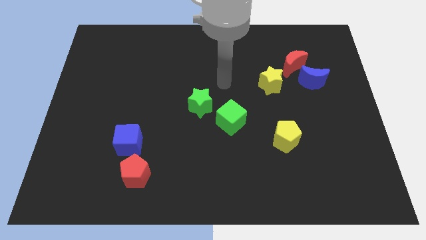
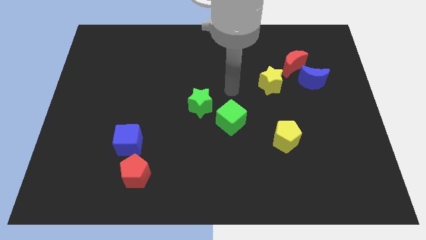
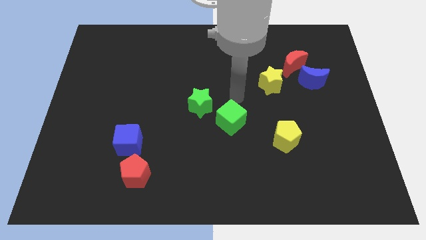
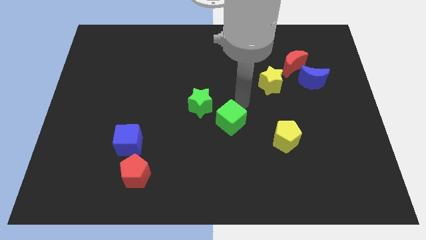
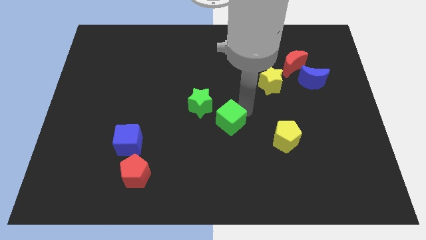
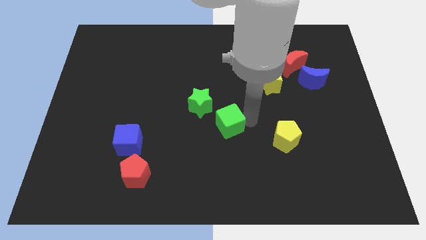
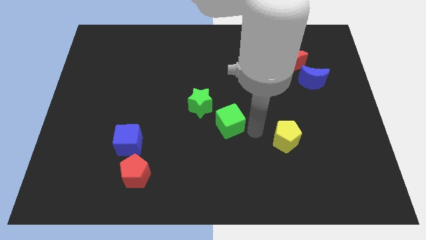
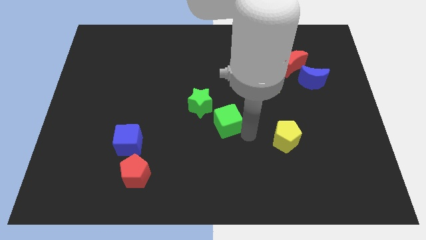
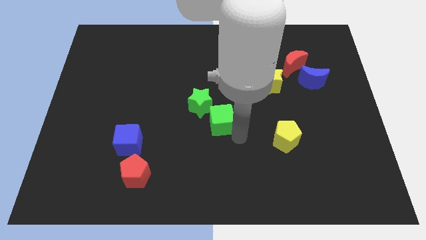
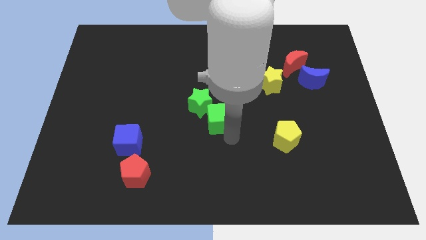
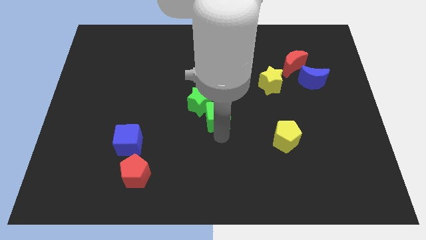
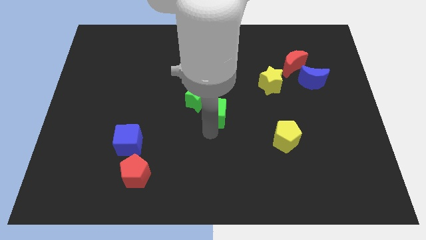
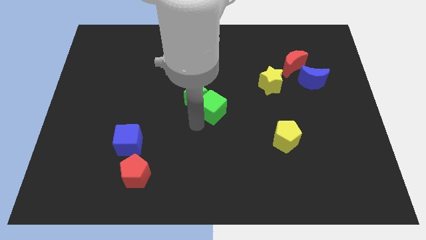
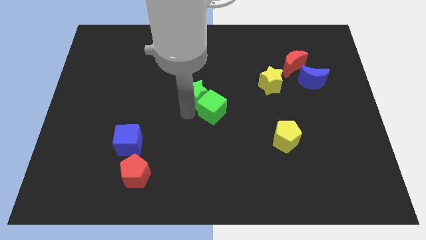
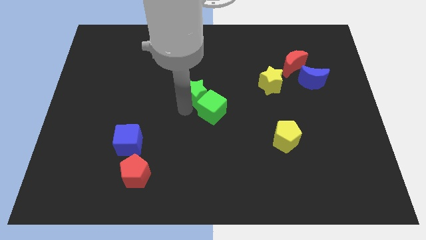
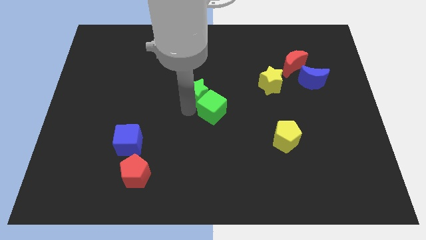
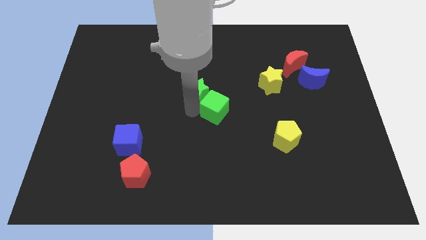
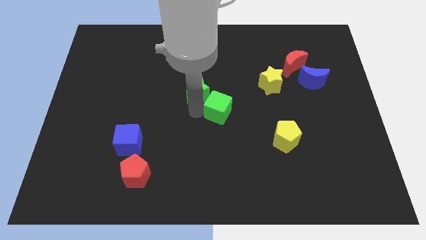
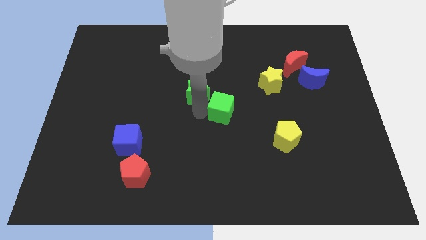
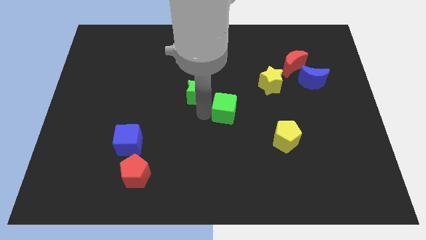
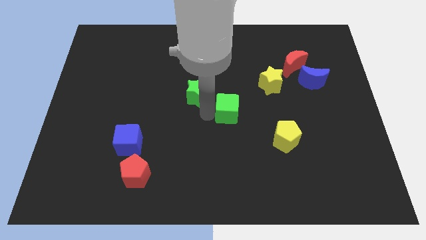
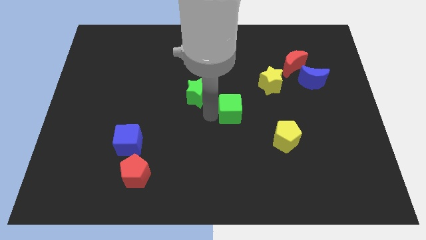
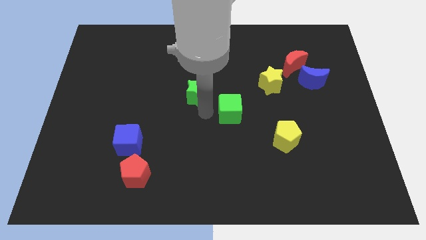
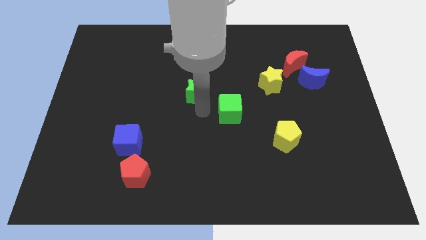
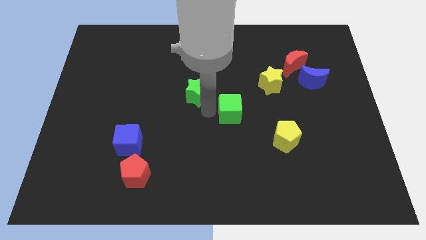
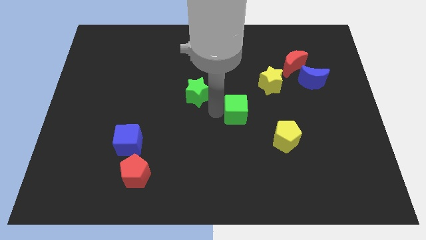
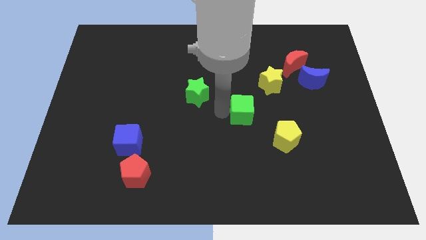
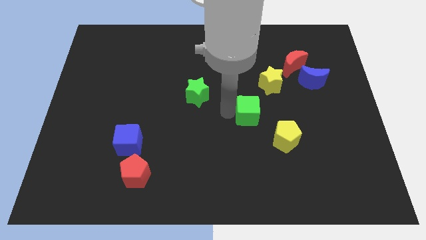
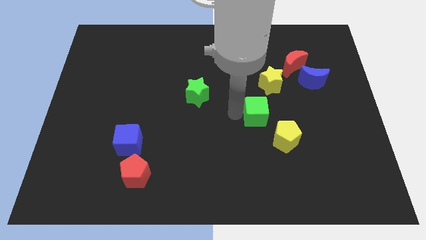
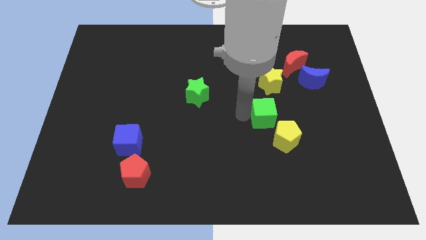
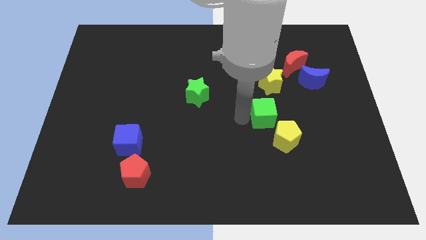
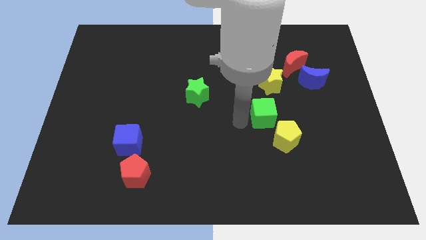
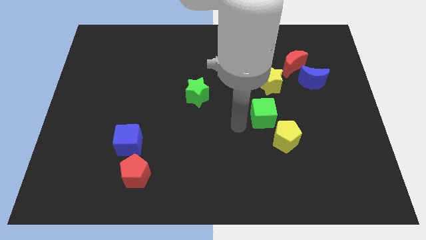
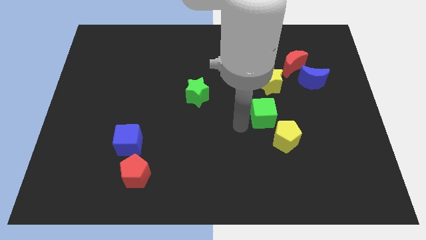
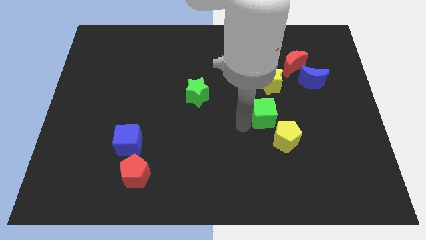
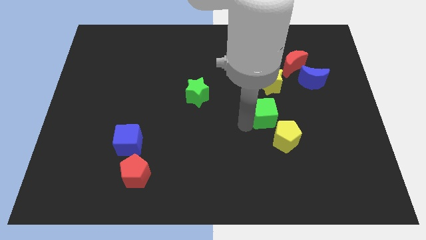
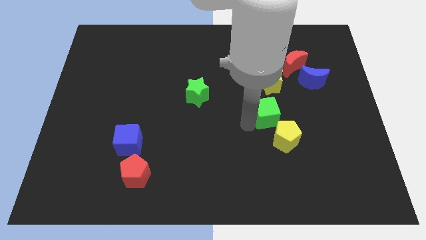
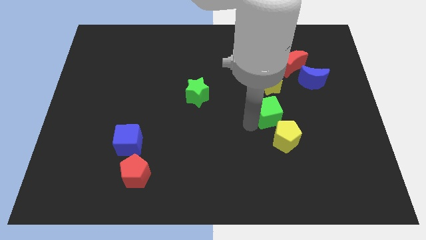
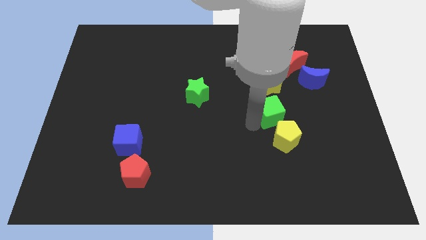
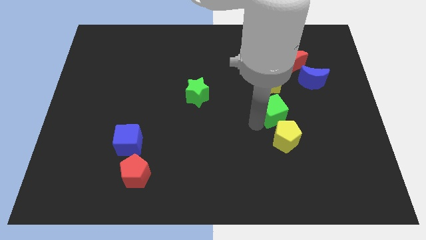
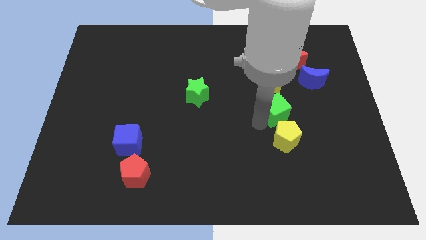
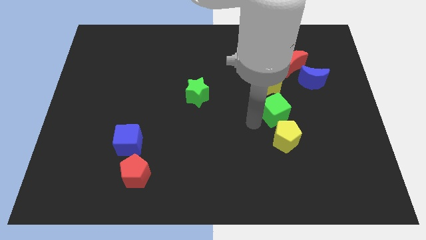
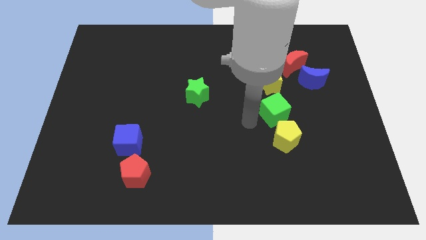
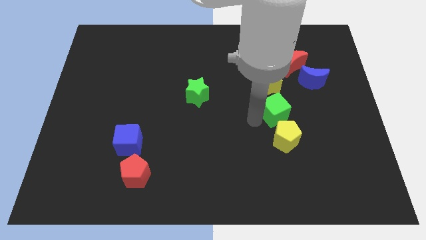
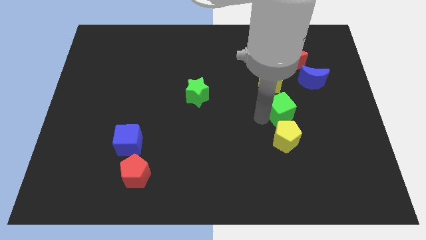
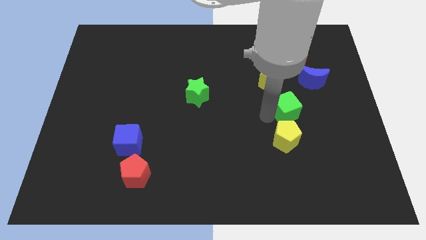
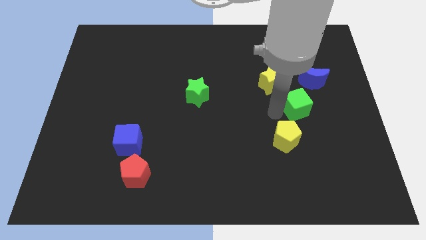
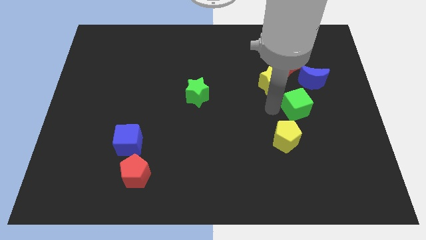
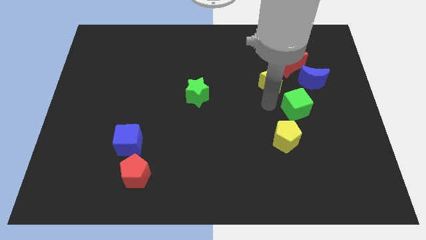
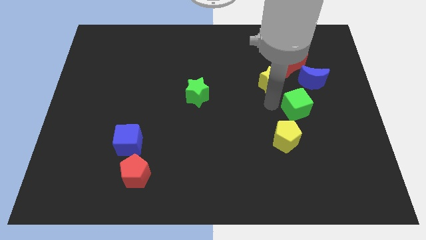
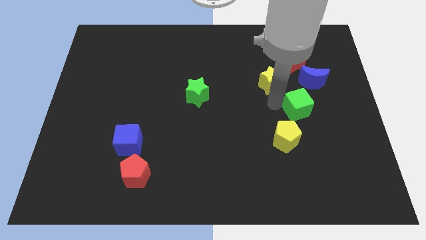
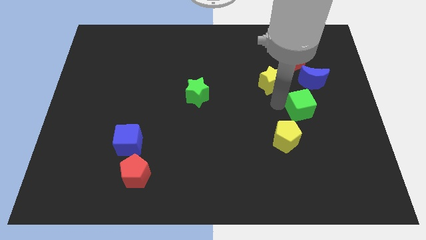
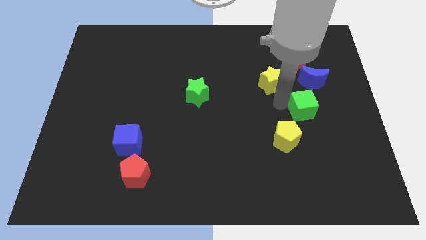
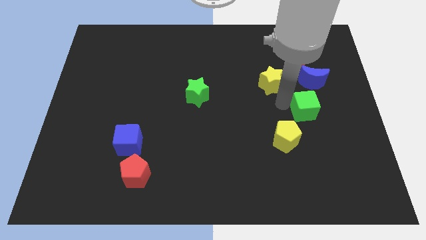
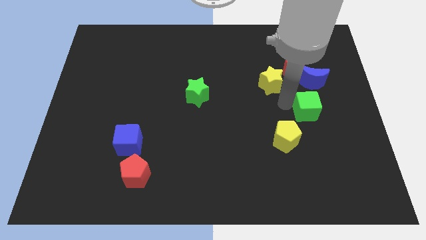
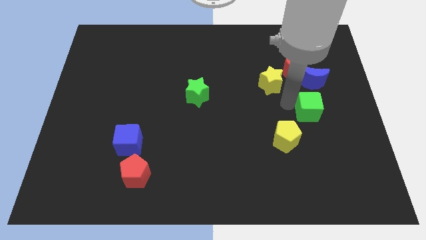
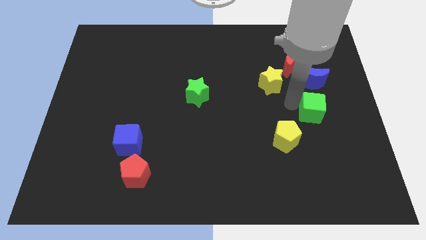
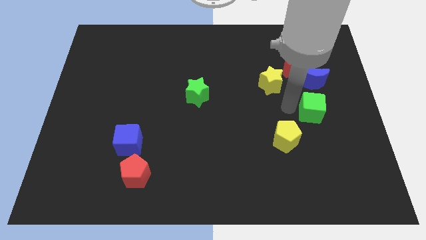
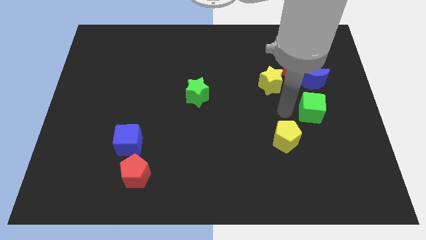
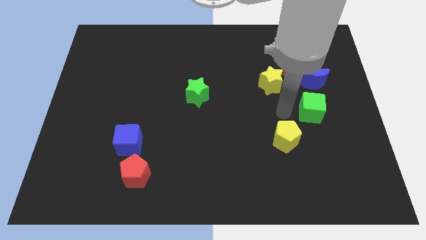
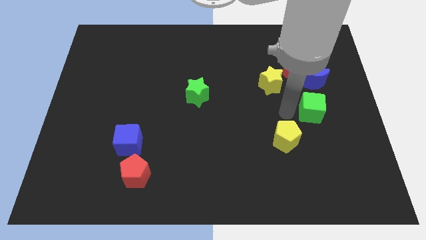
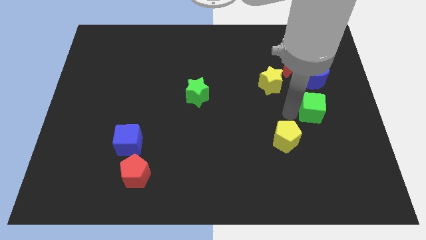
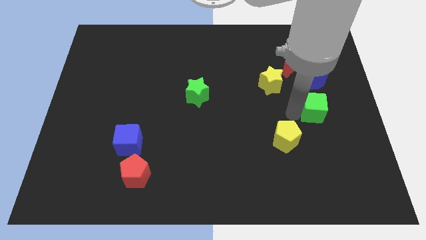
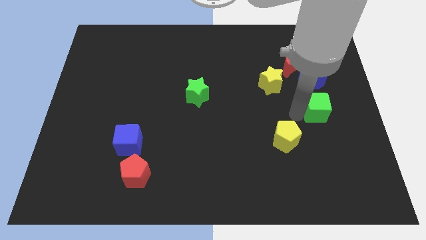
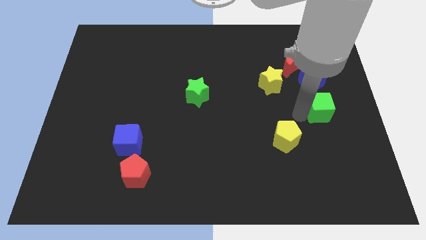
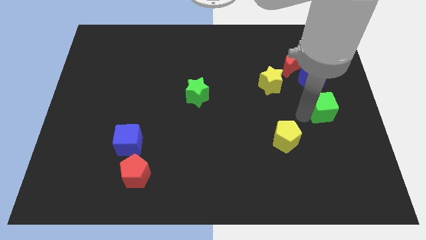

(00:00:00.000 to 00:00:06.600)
push the green cube to the right side of the board

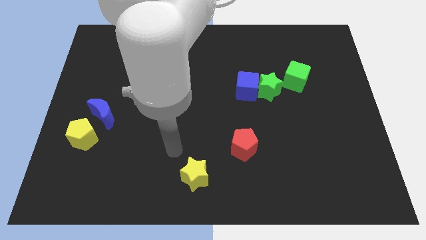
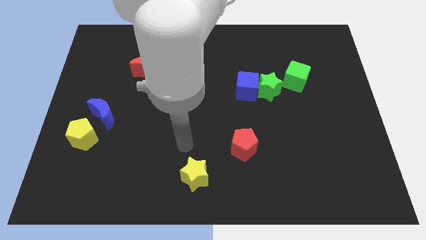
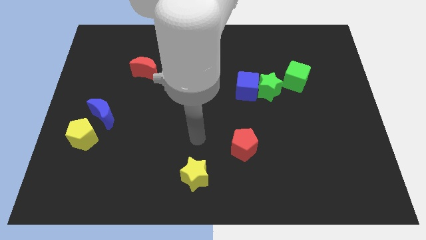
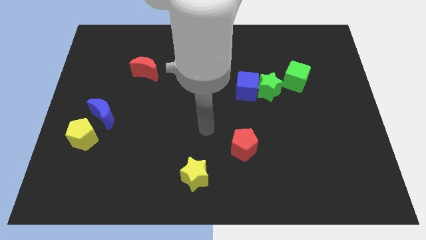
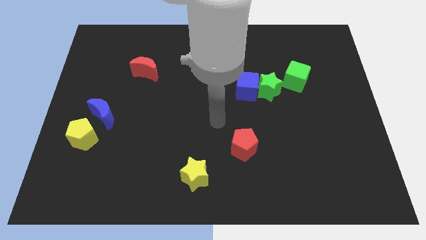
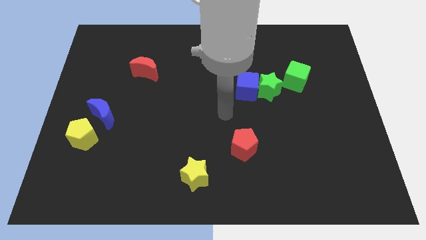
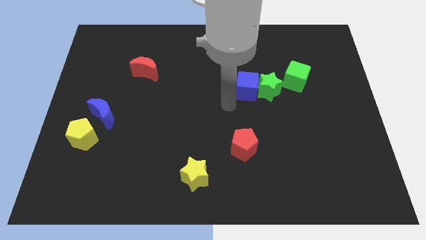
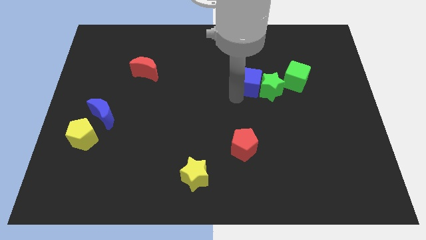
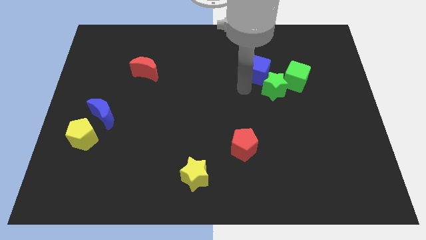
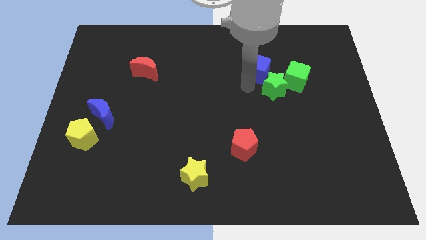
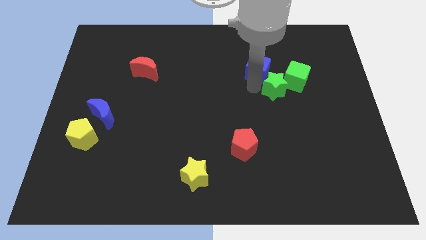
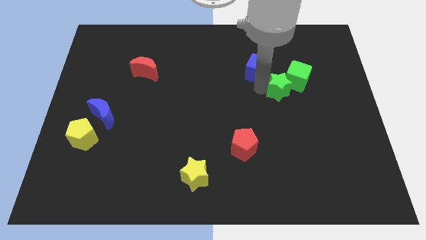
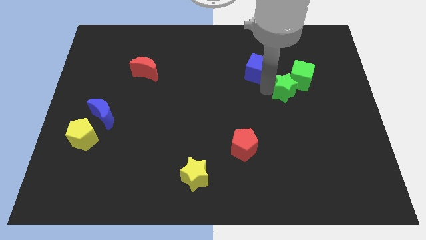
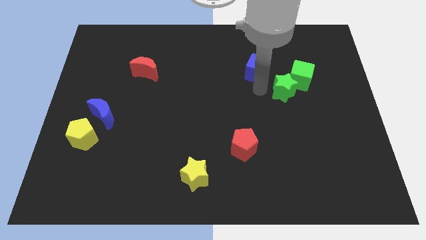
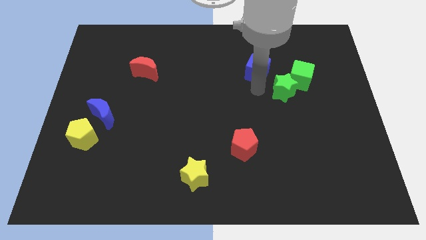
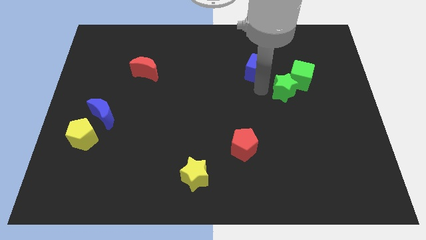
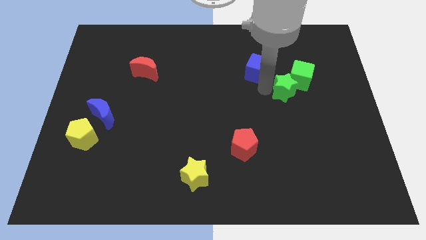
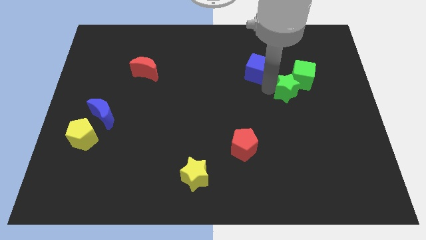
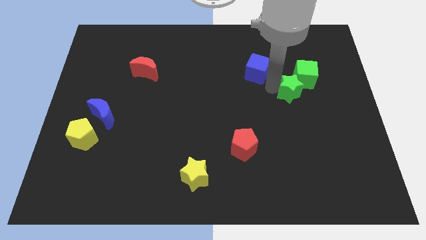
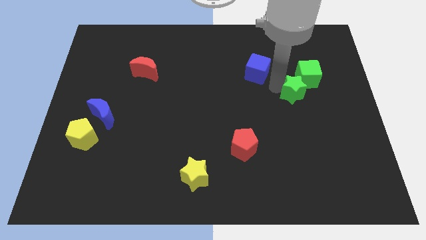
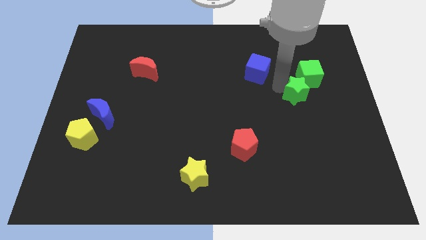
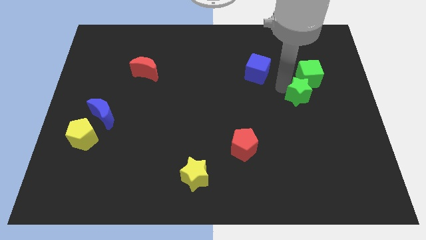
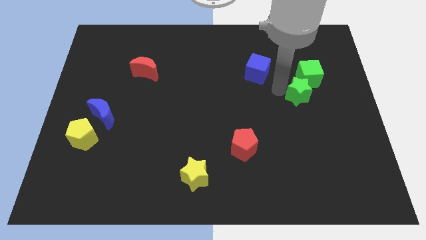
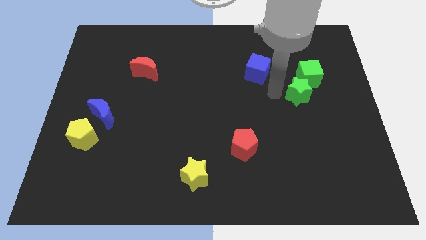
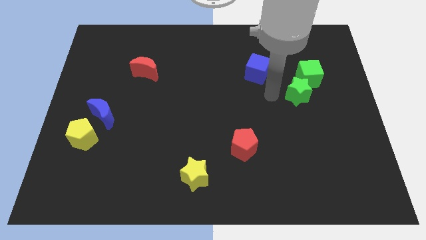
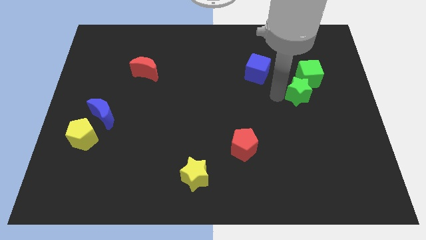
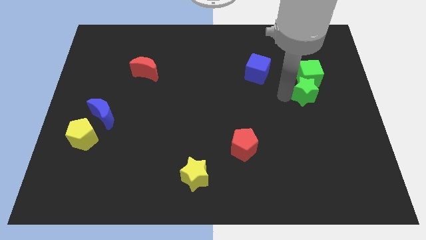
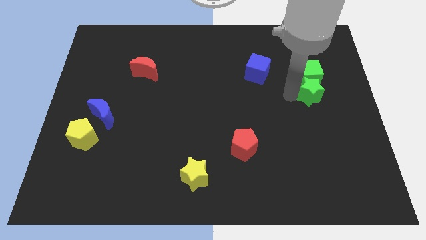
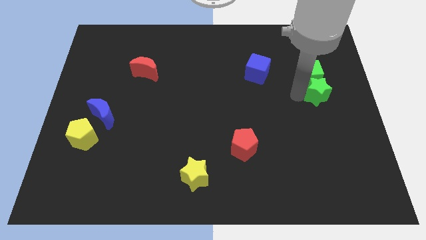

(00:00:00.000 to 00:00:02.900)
move the green star to the right side
